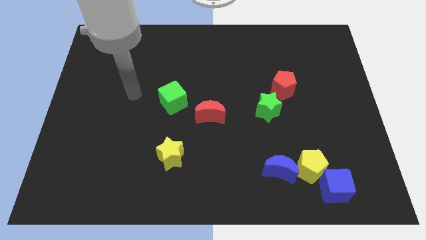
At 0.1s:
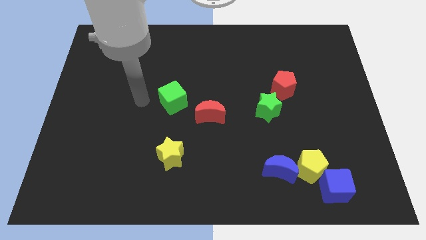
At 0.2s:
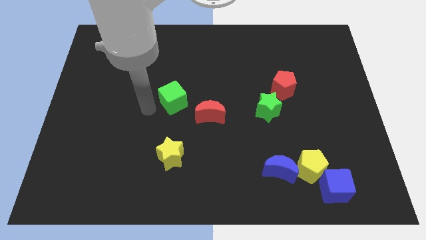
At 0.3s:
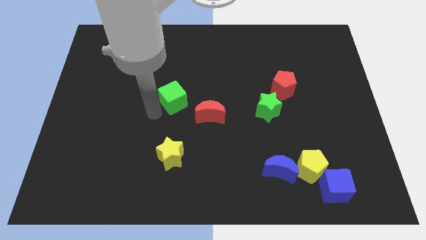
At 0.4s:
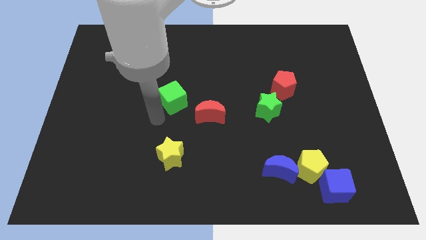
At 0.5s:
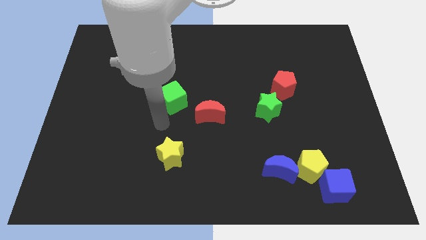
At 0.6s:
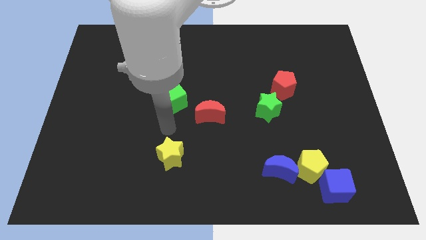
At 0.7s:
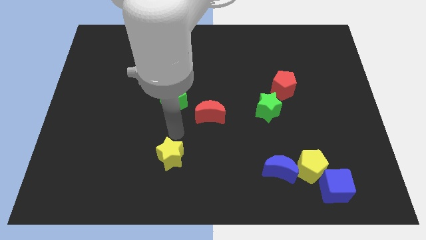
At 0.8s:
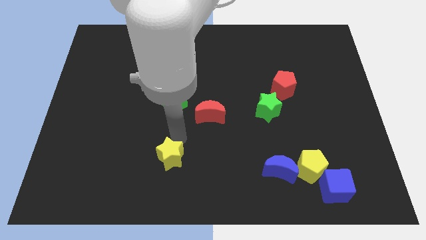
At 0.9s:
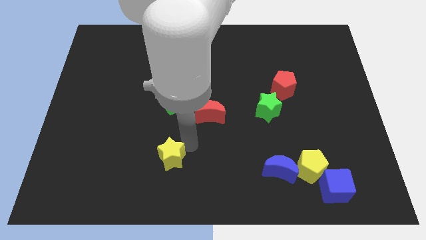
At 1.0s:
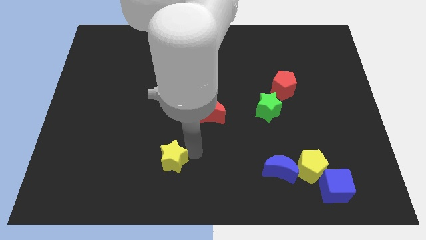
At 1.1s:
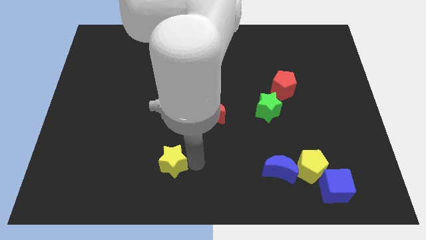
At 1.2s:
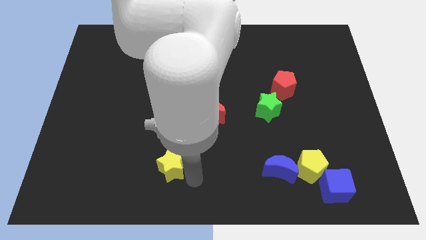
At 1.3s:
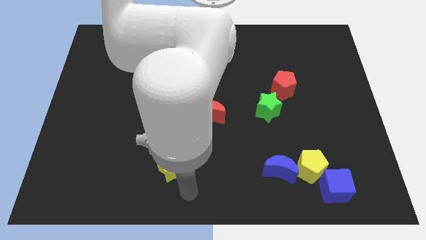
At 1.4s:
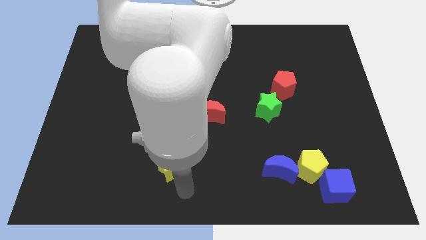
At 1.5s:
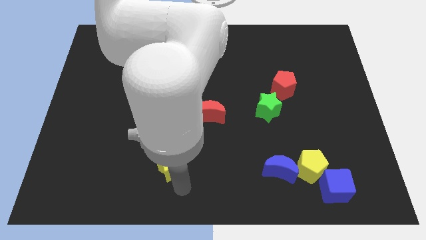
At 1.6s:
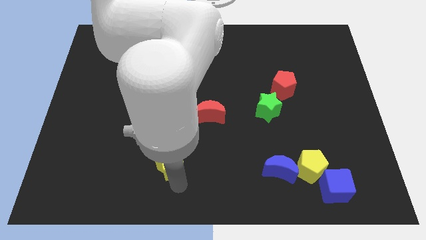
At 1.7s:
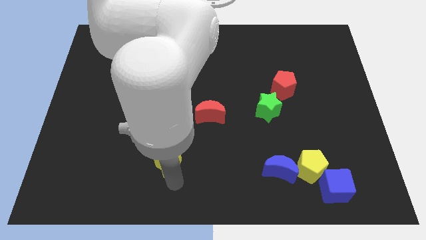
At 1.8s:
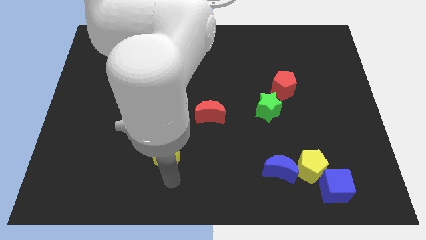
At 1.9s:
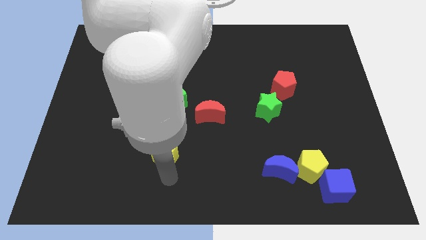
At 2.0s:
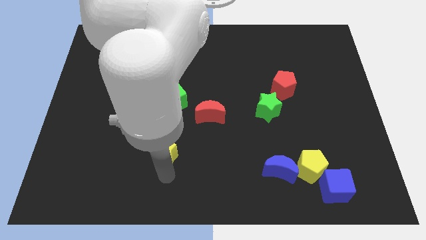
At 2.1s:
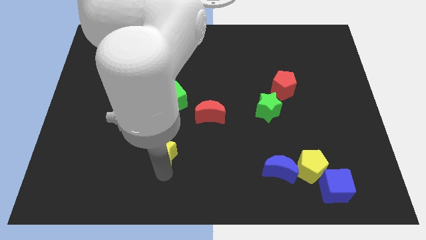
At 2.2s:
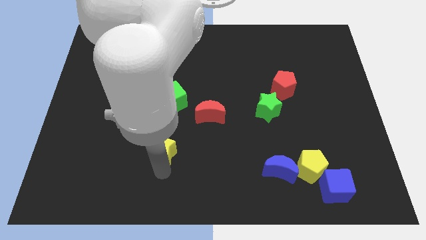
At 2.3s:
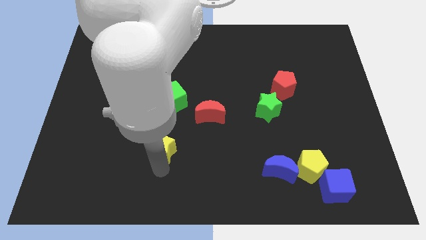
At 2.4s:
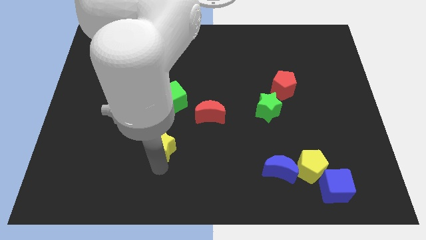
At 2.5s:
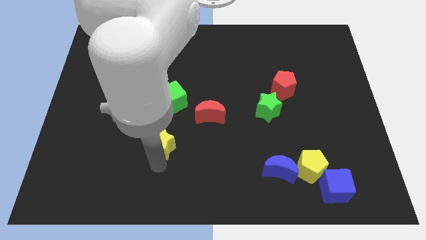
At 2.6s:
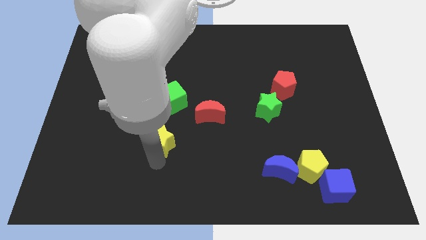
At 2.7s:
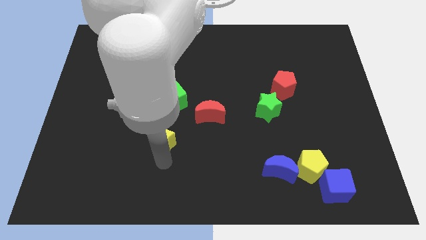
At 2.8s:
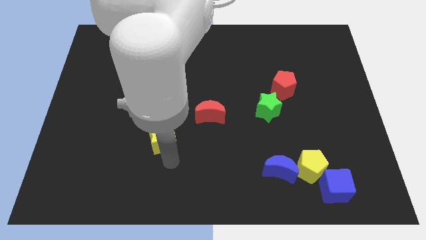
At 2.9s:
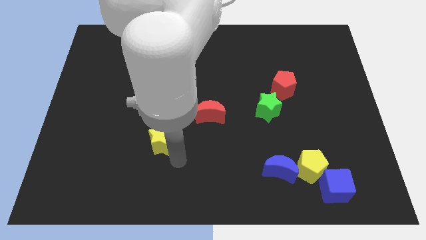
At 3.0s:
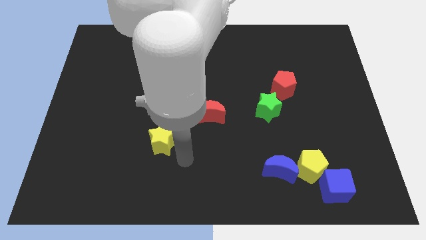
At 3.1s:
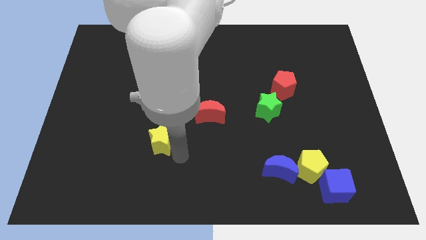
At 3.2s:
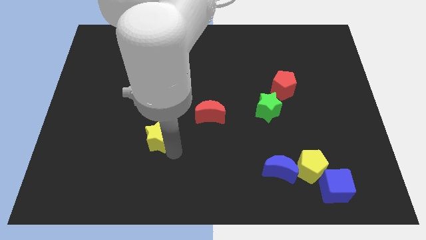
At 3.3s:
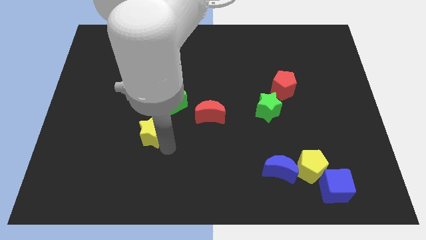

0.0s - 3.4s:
push the yellow star a bit up and left diagonally

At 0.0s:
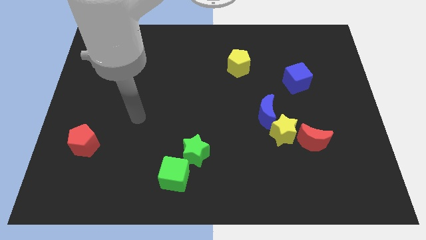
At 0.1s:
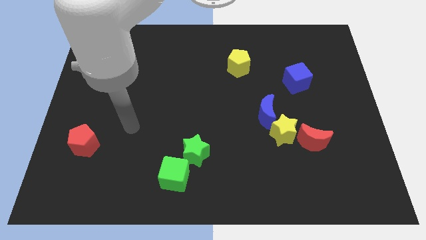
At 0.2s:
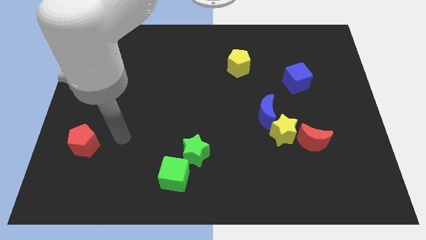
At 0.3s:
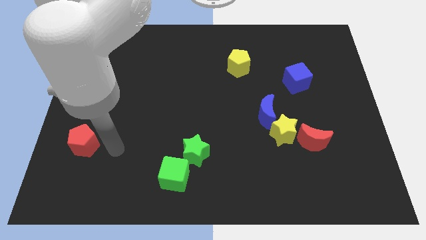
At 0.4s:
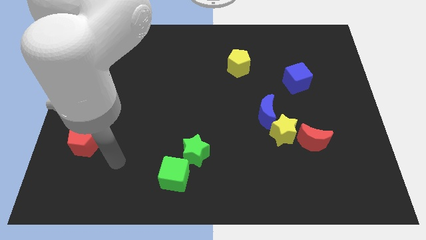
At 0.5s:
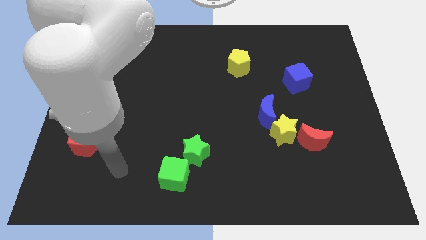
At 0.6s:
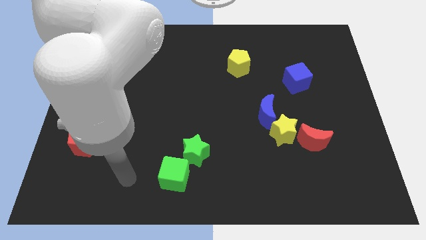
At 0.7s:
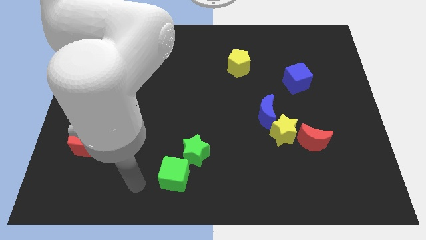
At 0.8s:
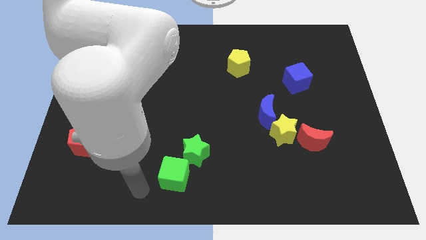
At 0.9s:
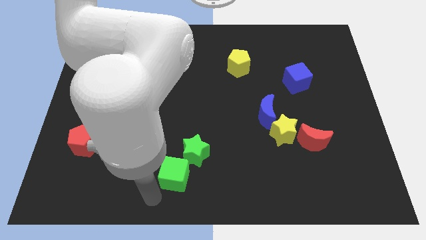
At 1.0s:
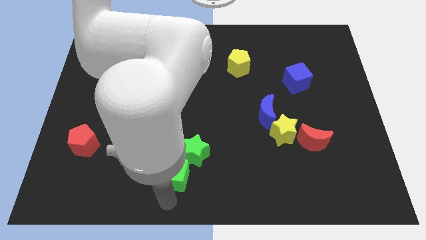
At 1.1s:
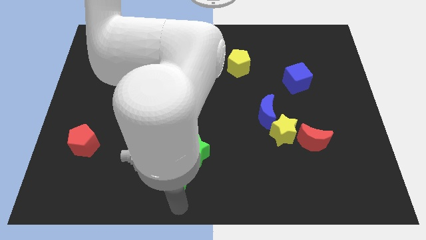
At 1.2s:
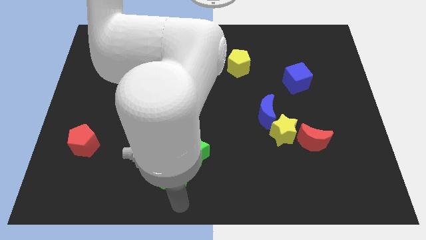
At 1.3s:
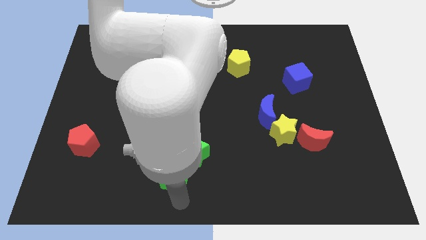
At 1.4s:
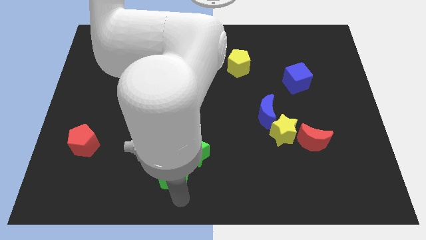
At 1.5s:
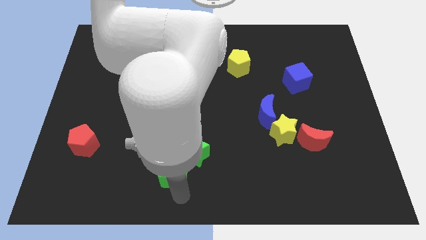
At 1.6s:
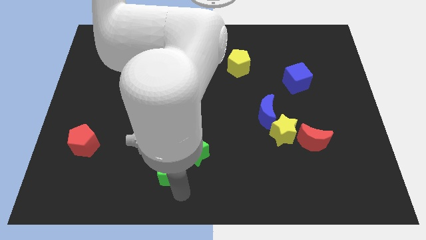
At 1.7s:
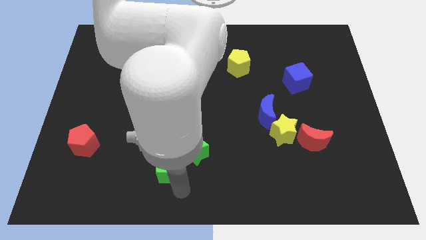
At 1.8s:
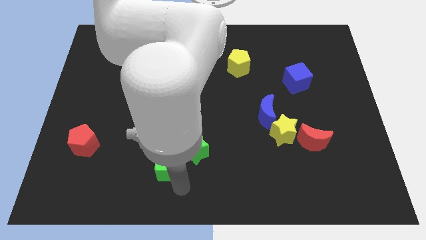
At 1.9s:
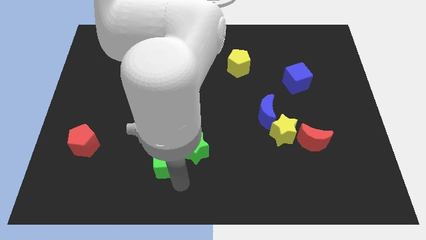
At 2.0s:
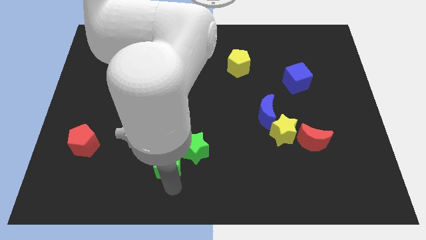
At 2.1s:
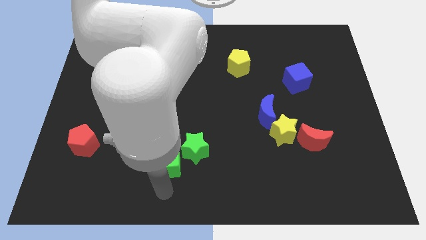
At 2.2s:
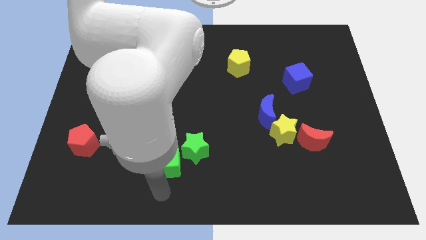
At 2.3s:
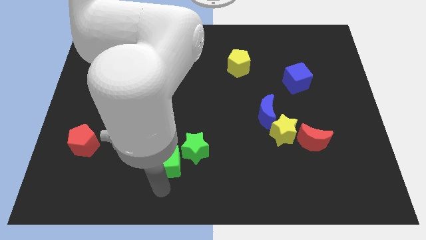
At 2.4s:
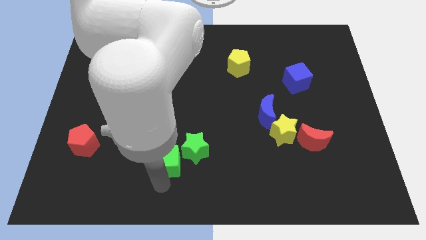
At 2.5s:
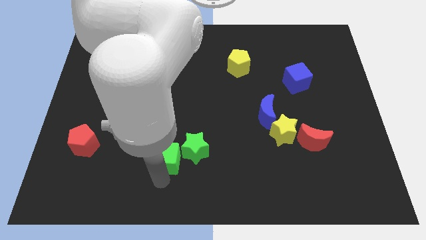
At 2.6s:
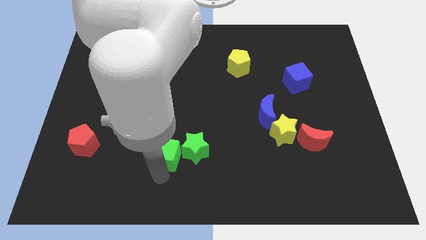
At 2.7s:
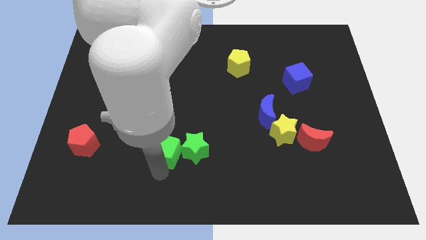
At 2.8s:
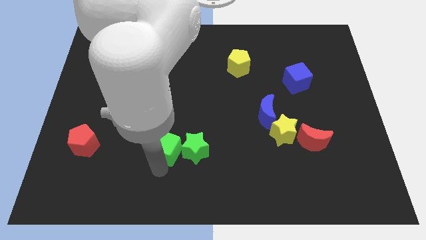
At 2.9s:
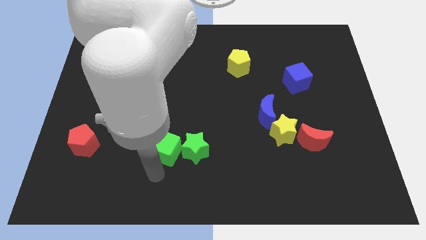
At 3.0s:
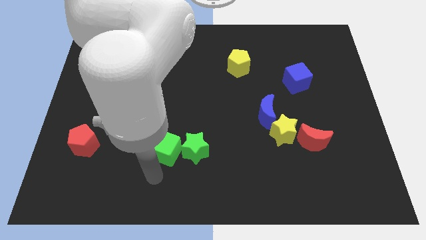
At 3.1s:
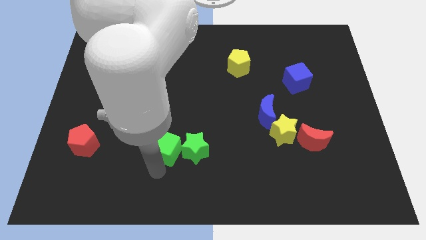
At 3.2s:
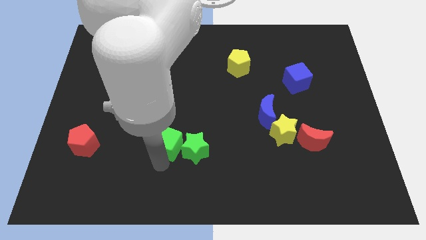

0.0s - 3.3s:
slightly push the green cube up

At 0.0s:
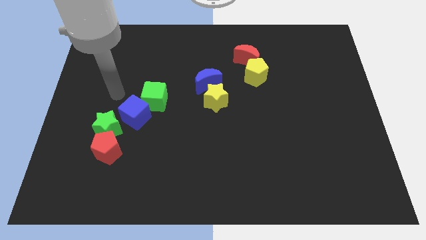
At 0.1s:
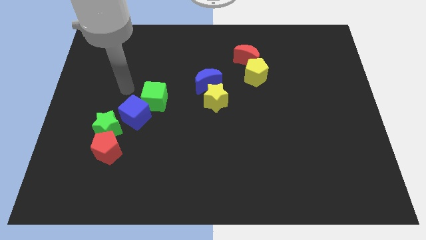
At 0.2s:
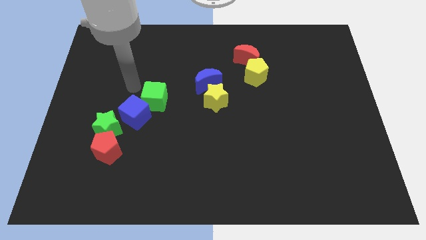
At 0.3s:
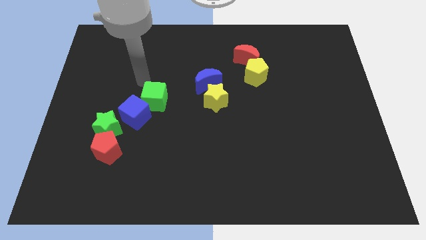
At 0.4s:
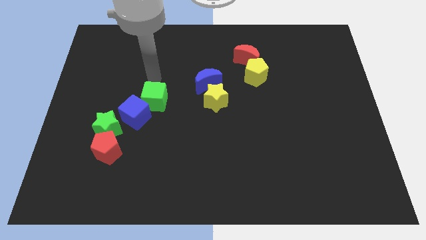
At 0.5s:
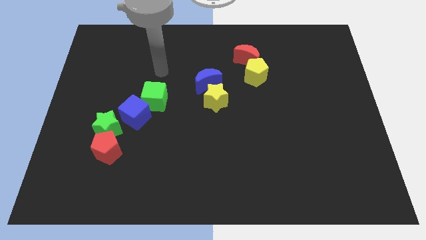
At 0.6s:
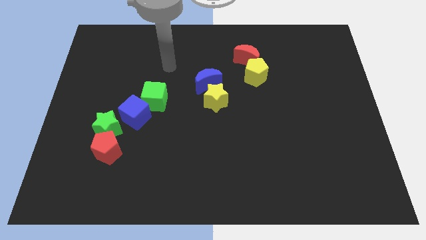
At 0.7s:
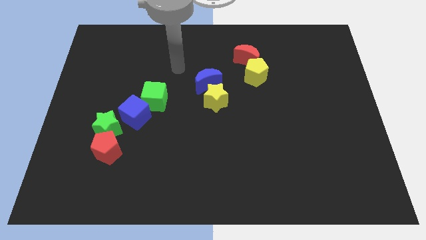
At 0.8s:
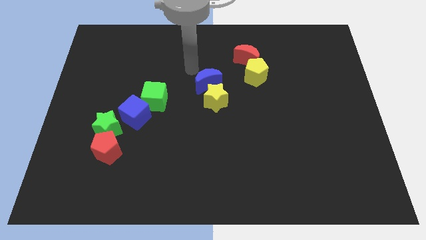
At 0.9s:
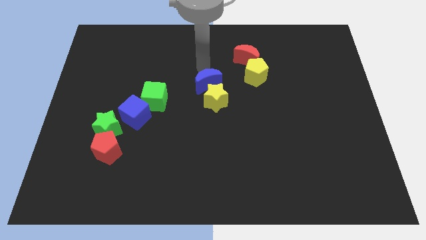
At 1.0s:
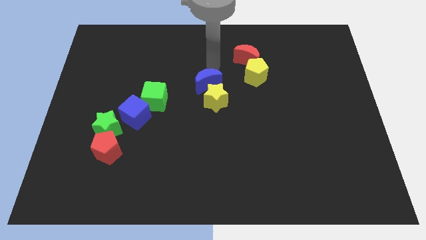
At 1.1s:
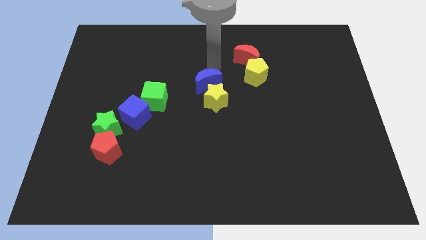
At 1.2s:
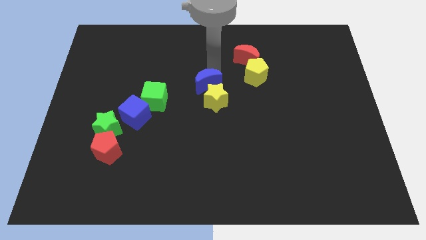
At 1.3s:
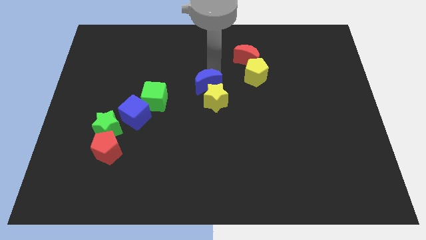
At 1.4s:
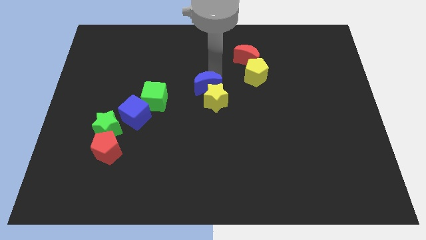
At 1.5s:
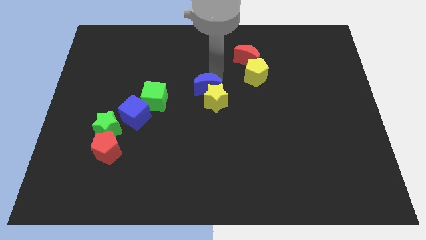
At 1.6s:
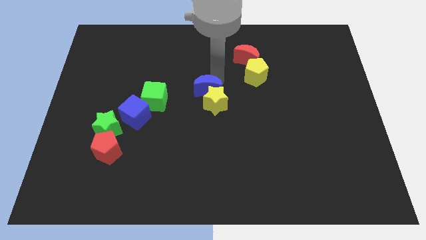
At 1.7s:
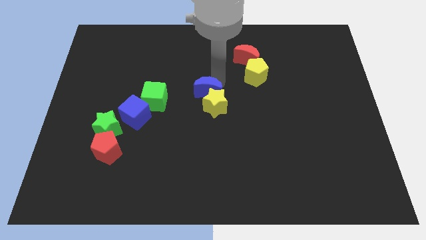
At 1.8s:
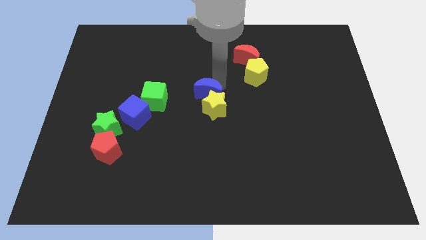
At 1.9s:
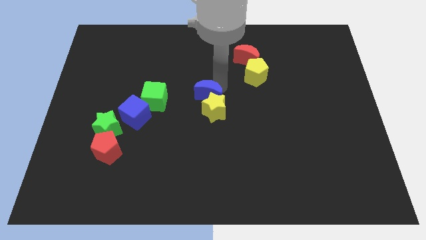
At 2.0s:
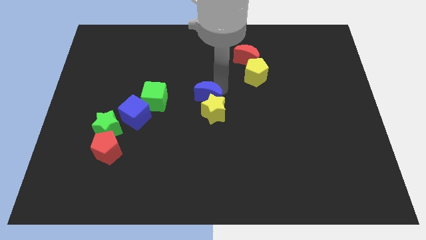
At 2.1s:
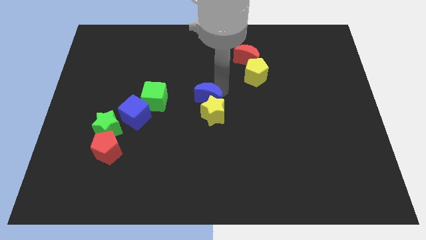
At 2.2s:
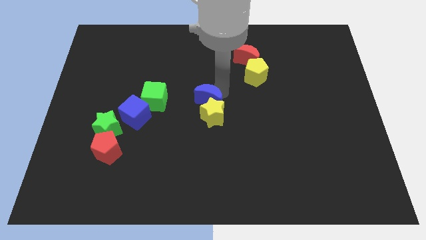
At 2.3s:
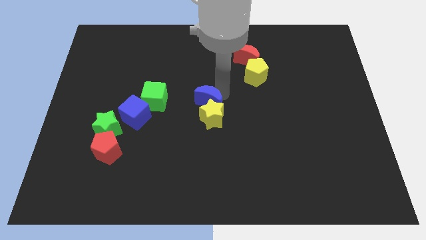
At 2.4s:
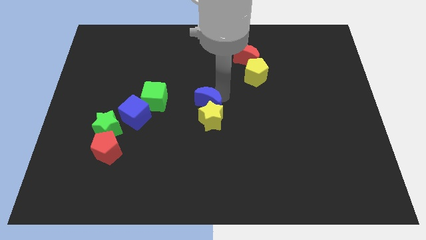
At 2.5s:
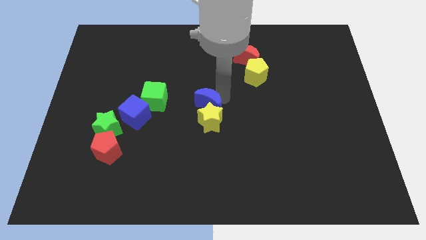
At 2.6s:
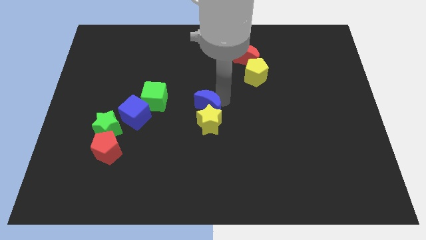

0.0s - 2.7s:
push the blue moon downwards a little bit
